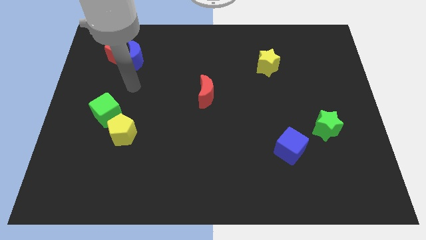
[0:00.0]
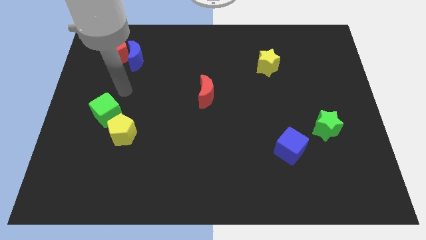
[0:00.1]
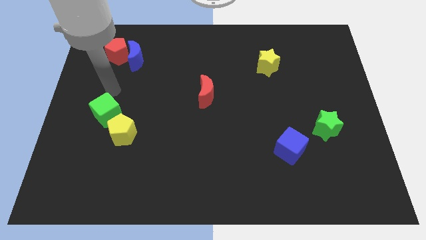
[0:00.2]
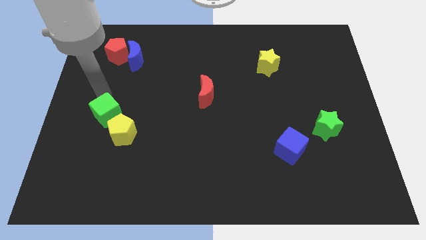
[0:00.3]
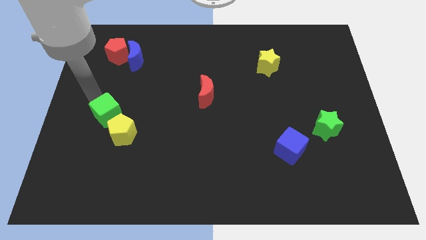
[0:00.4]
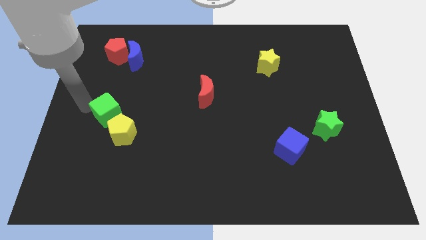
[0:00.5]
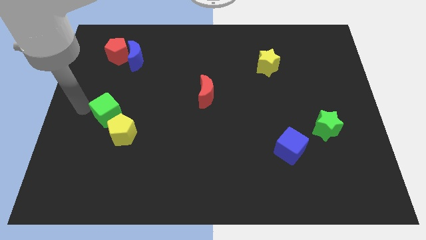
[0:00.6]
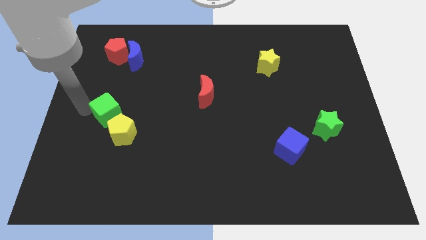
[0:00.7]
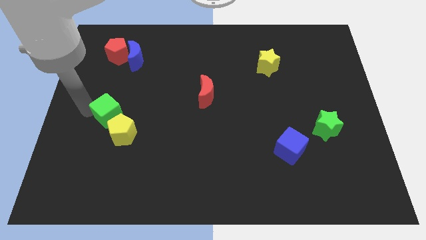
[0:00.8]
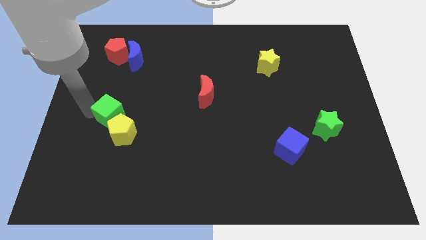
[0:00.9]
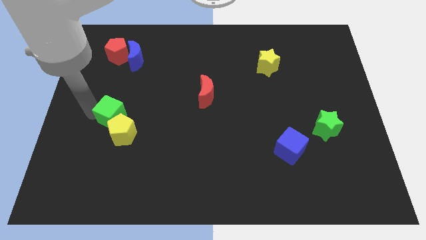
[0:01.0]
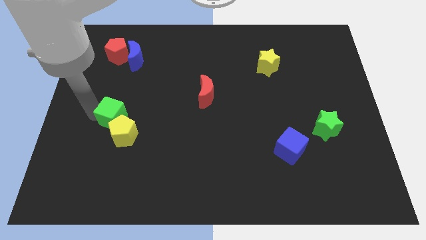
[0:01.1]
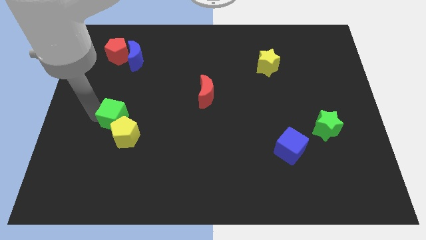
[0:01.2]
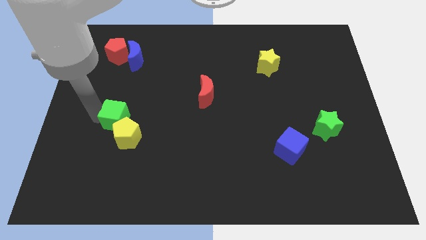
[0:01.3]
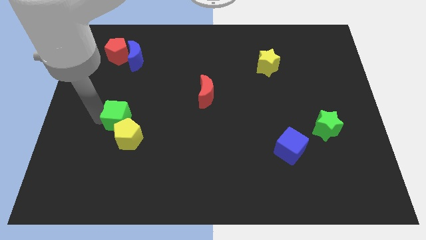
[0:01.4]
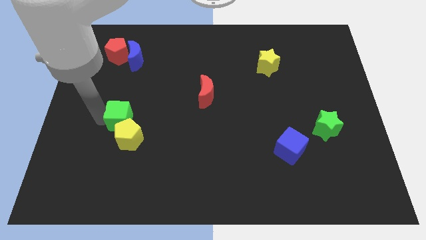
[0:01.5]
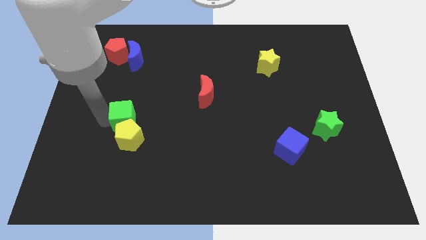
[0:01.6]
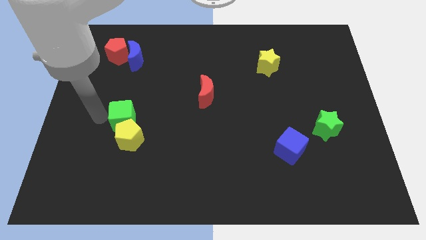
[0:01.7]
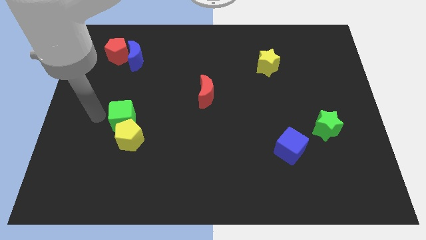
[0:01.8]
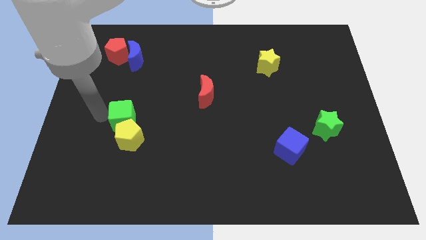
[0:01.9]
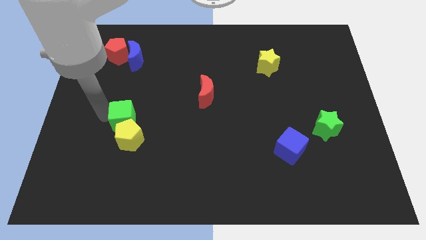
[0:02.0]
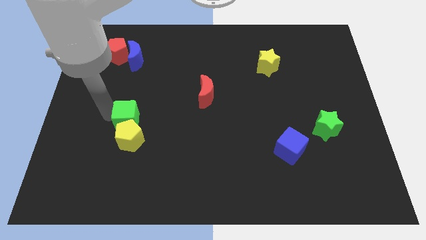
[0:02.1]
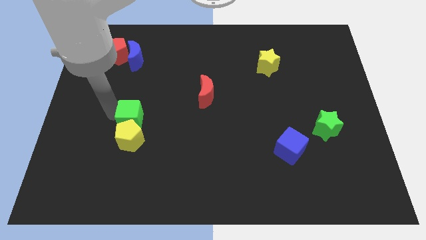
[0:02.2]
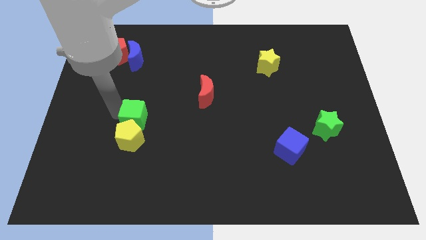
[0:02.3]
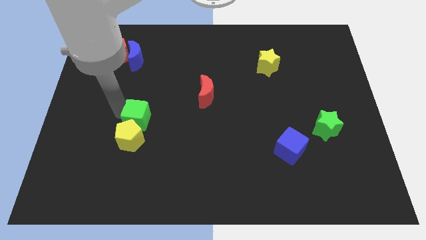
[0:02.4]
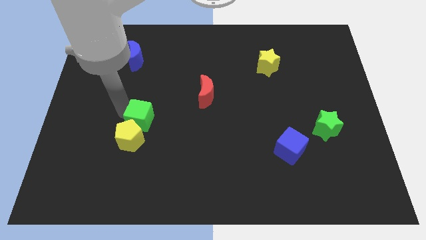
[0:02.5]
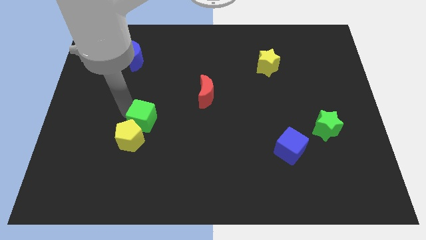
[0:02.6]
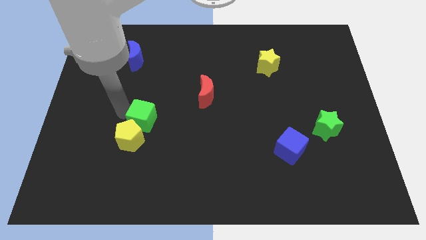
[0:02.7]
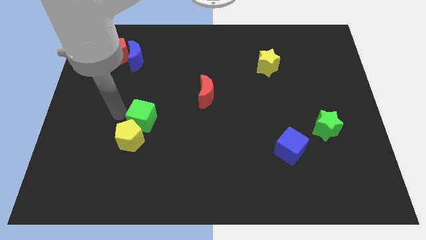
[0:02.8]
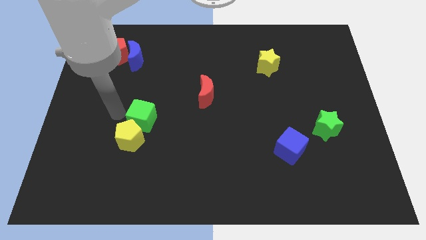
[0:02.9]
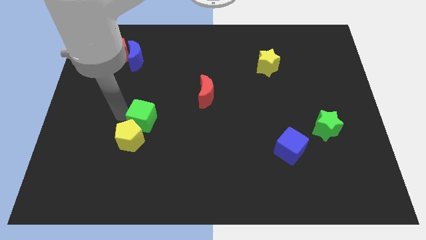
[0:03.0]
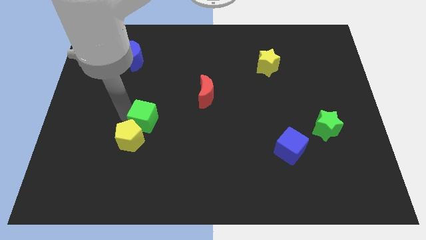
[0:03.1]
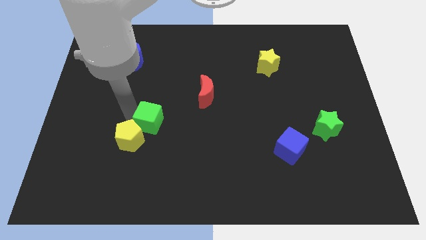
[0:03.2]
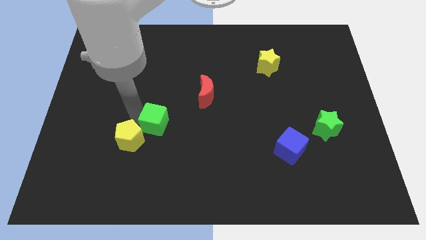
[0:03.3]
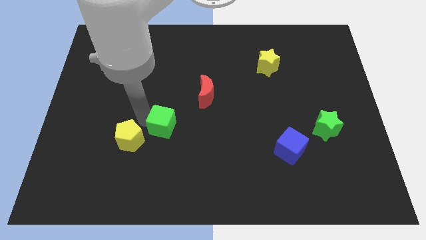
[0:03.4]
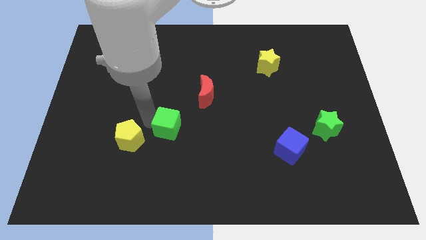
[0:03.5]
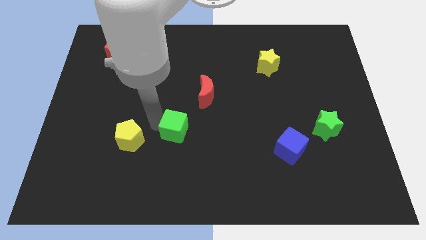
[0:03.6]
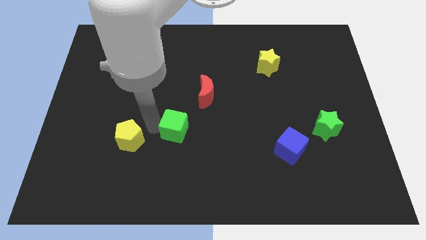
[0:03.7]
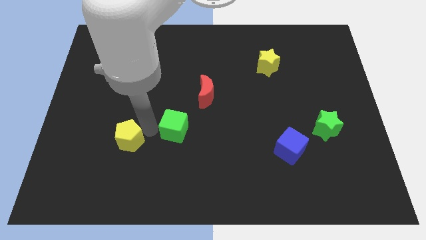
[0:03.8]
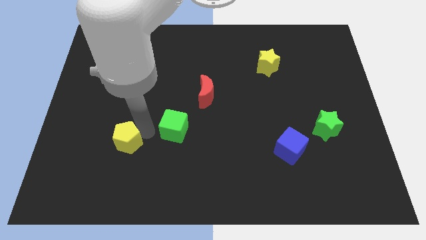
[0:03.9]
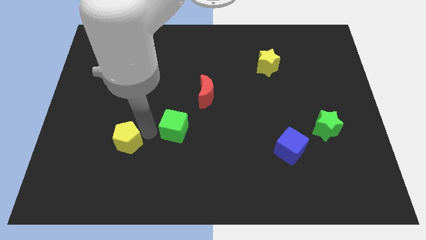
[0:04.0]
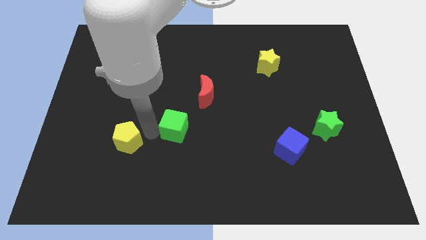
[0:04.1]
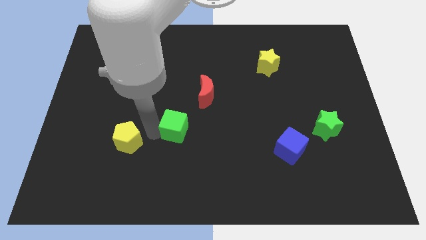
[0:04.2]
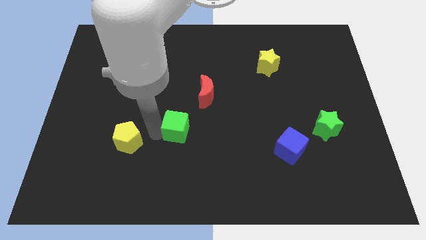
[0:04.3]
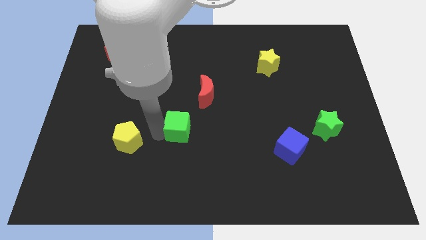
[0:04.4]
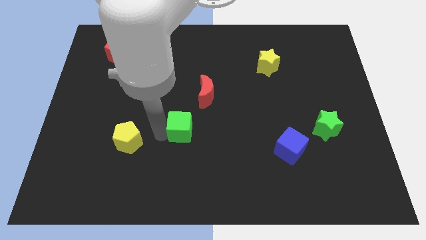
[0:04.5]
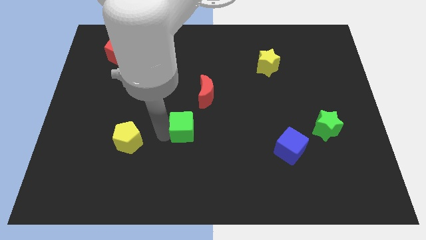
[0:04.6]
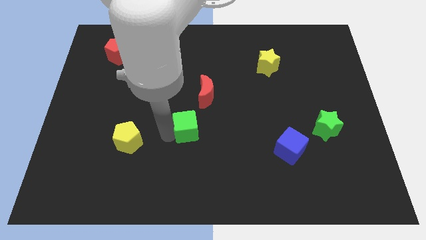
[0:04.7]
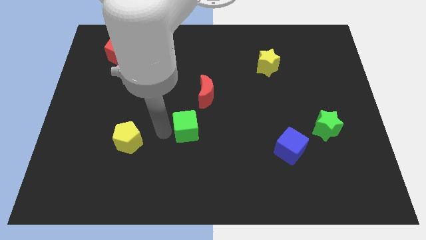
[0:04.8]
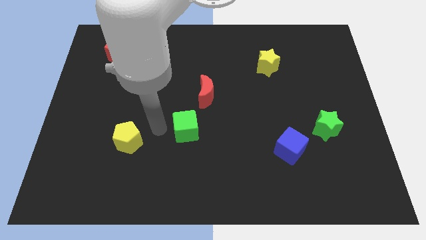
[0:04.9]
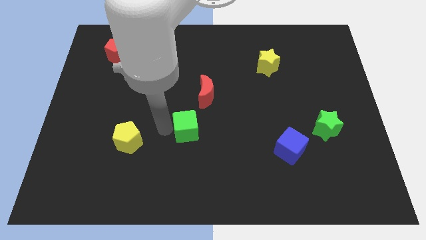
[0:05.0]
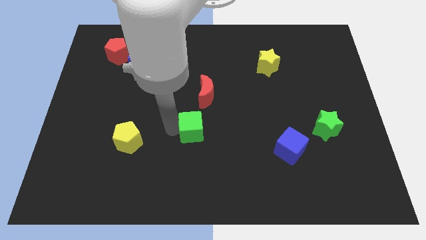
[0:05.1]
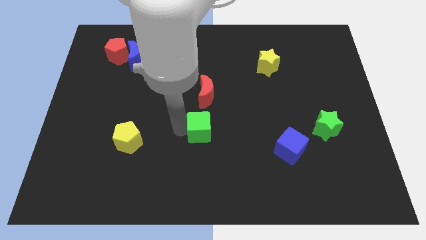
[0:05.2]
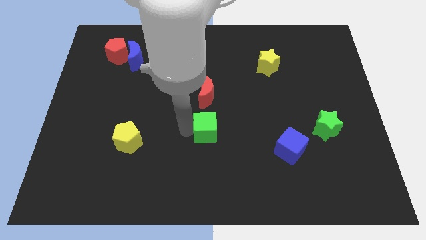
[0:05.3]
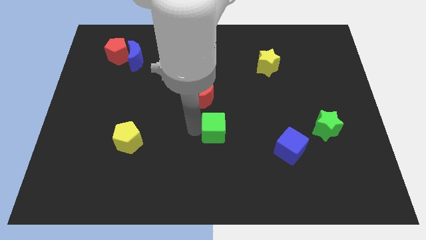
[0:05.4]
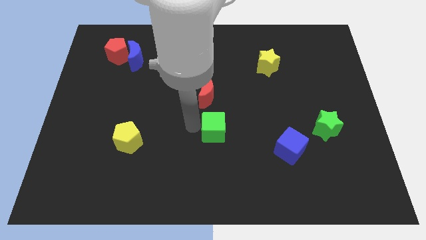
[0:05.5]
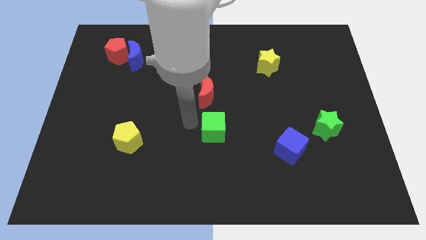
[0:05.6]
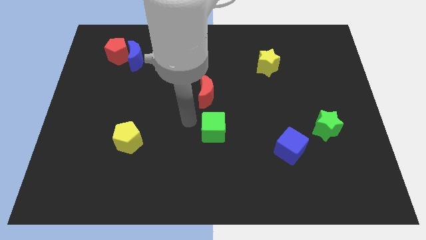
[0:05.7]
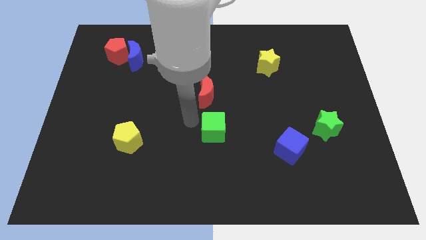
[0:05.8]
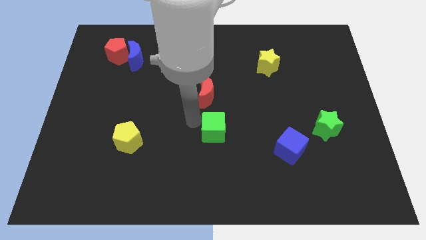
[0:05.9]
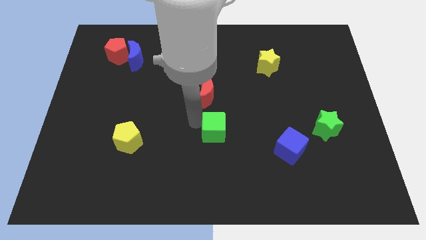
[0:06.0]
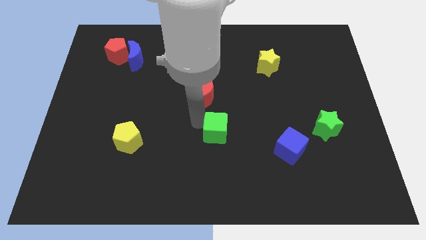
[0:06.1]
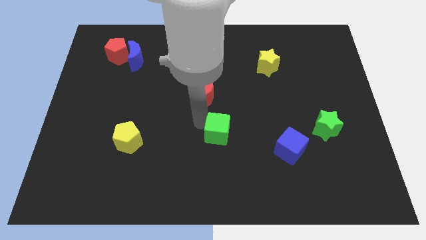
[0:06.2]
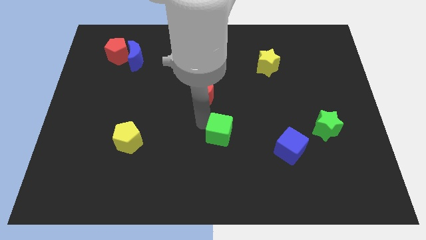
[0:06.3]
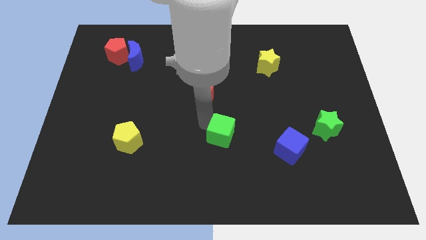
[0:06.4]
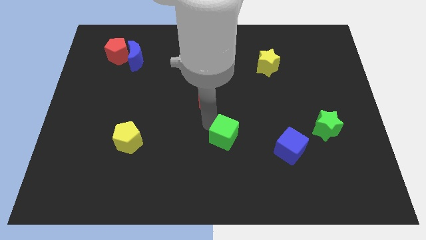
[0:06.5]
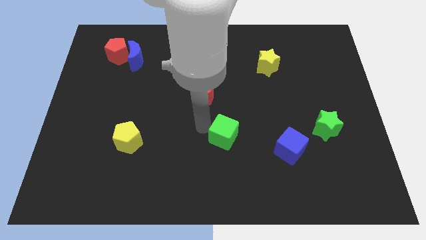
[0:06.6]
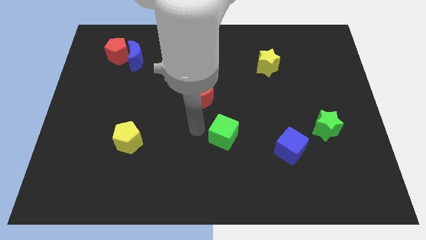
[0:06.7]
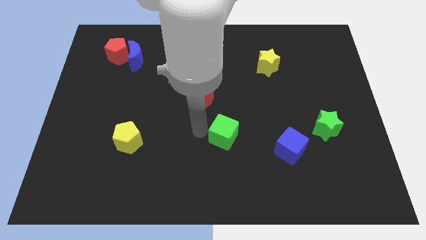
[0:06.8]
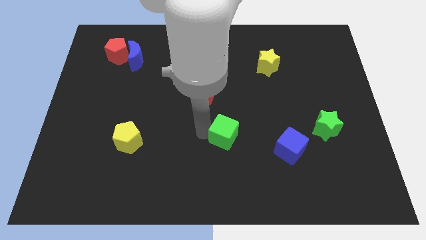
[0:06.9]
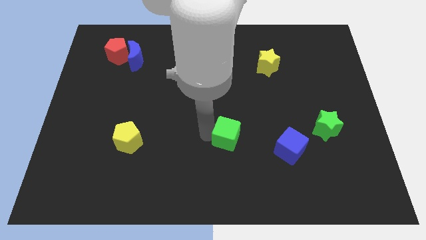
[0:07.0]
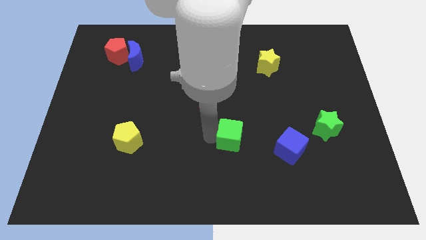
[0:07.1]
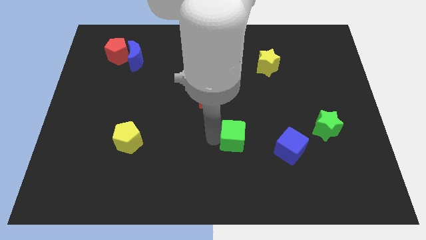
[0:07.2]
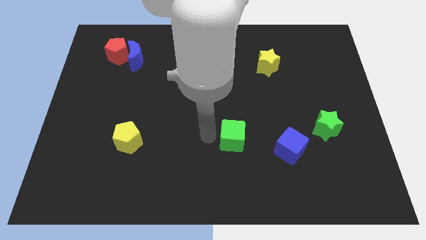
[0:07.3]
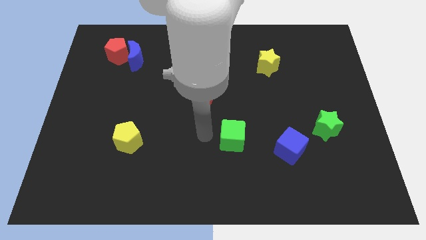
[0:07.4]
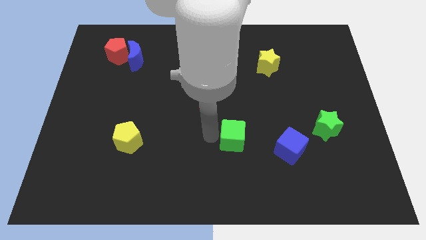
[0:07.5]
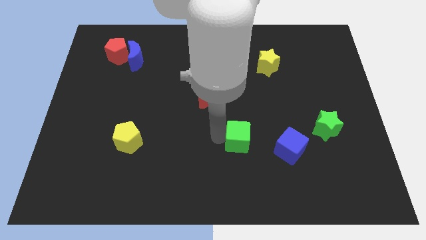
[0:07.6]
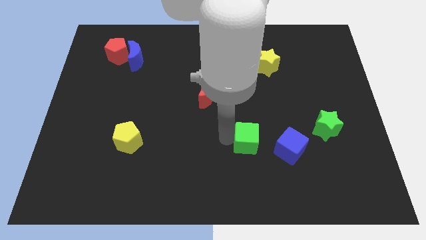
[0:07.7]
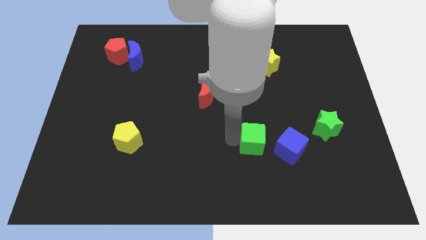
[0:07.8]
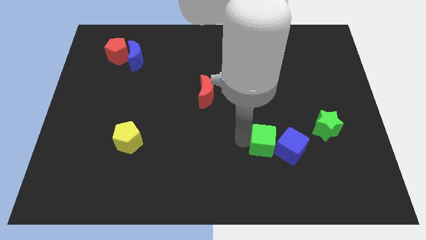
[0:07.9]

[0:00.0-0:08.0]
slide the green cube close to the blue cube

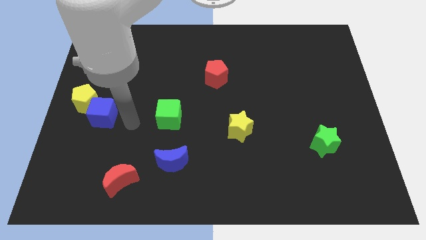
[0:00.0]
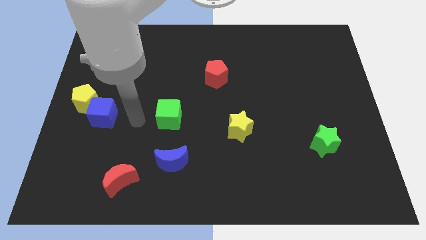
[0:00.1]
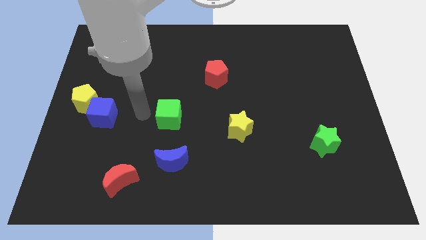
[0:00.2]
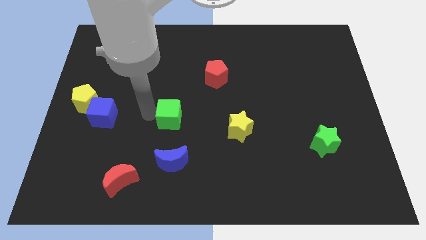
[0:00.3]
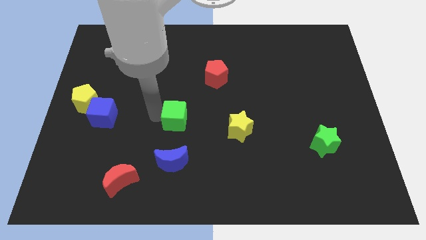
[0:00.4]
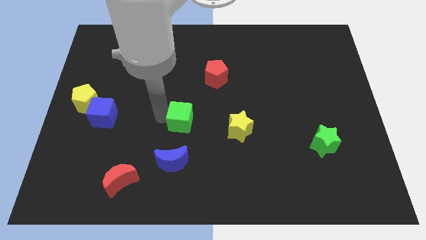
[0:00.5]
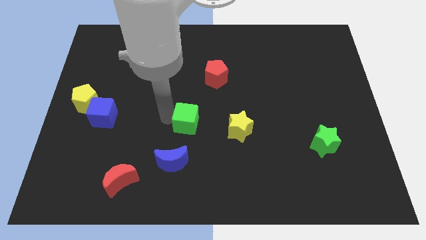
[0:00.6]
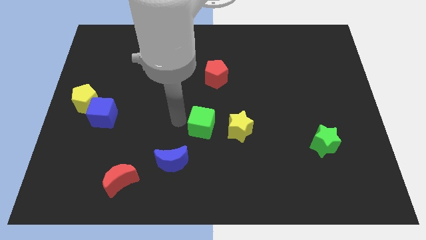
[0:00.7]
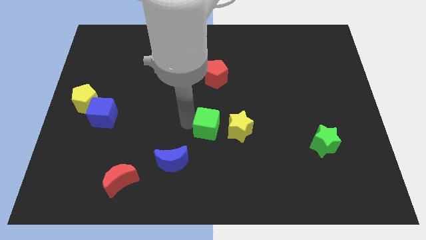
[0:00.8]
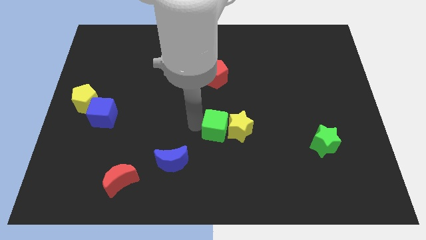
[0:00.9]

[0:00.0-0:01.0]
push the green cube towards the yellow star
